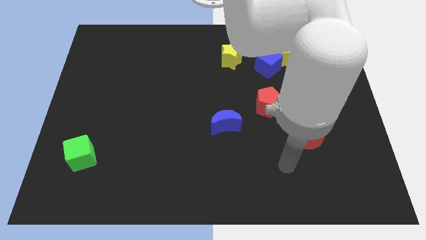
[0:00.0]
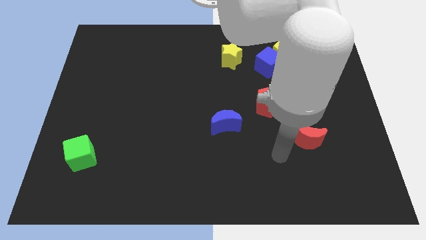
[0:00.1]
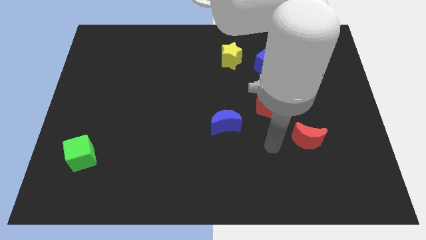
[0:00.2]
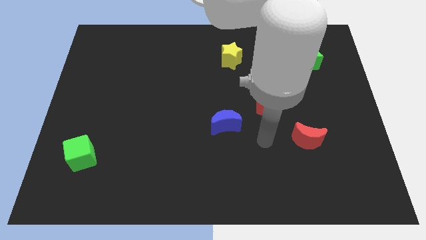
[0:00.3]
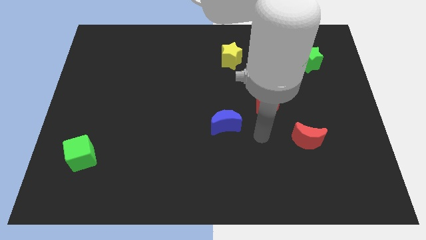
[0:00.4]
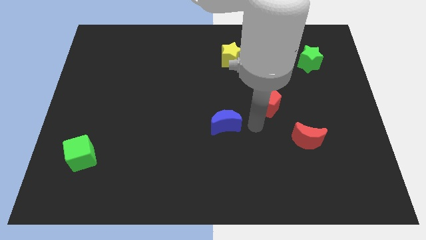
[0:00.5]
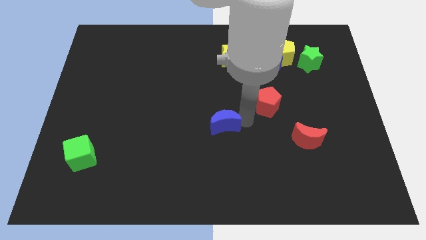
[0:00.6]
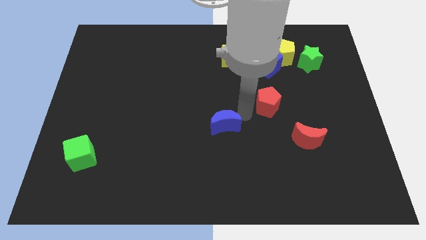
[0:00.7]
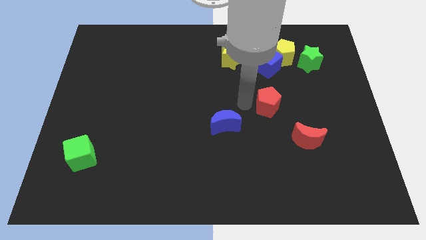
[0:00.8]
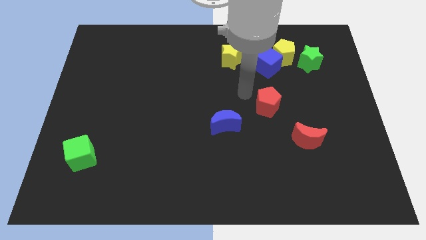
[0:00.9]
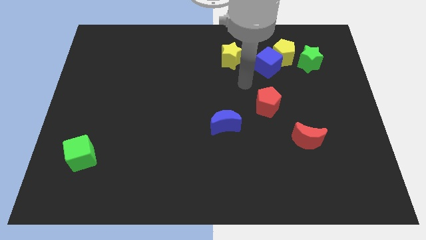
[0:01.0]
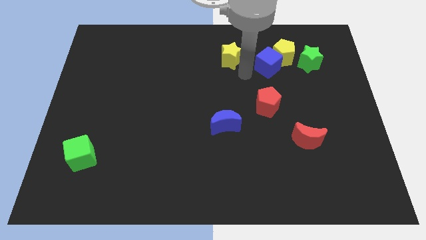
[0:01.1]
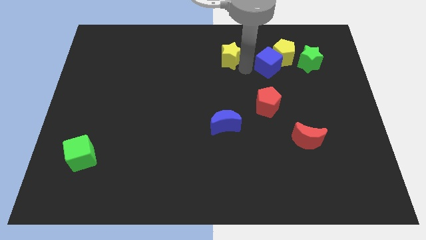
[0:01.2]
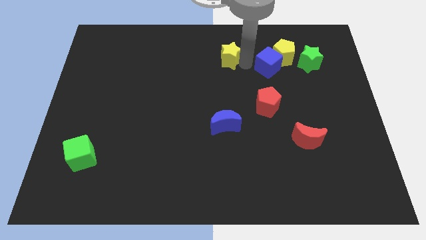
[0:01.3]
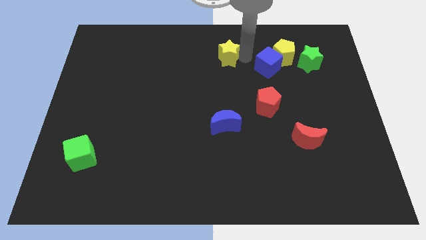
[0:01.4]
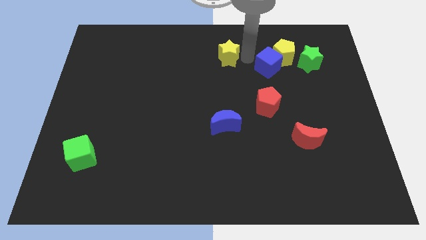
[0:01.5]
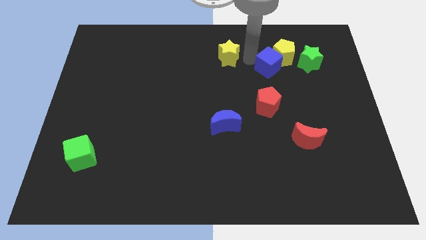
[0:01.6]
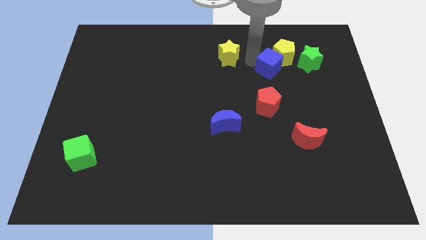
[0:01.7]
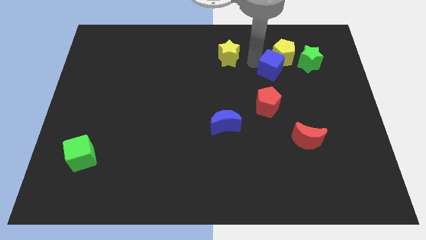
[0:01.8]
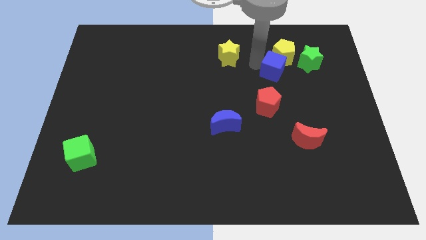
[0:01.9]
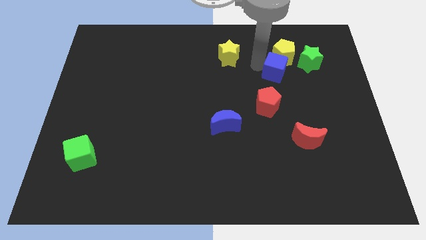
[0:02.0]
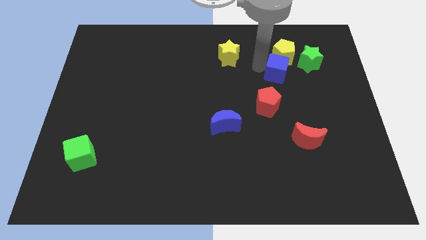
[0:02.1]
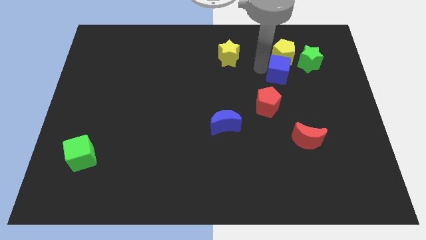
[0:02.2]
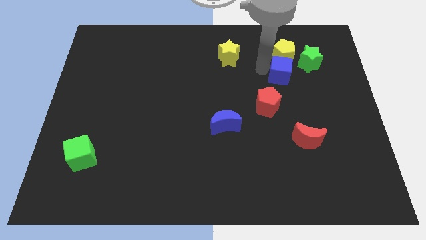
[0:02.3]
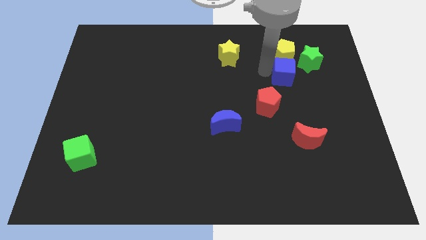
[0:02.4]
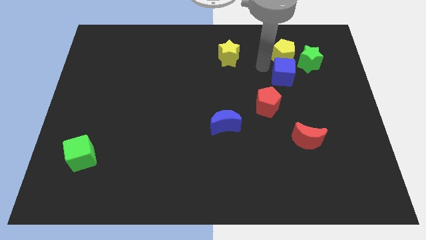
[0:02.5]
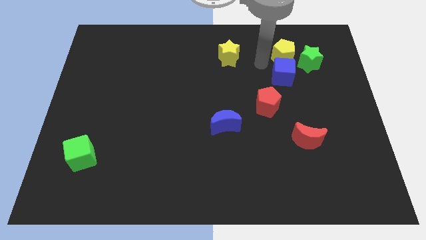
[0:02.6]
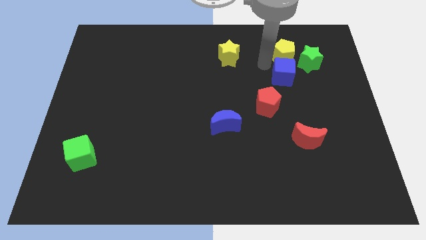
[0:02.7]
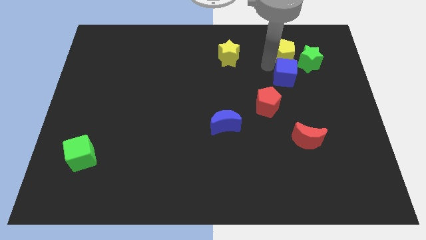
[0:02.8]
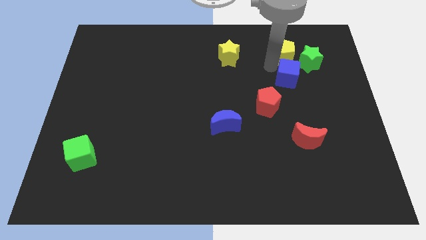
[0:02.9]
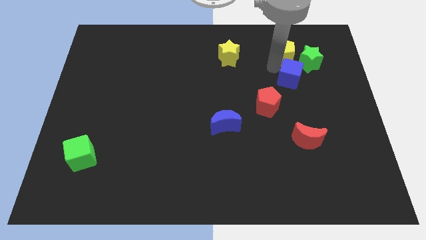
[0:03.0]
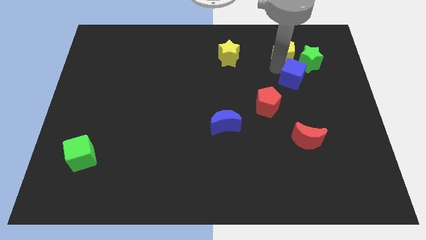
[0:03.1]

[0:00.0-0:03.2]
push the blue cube diagonally down and right a little bit

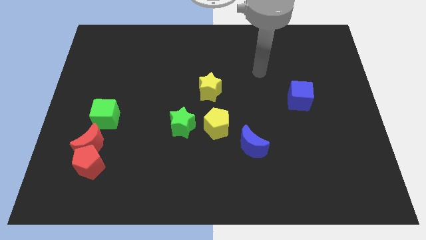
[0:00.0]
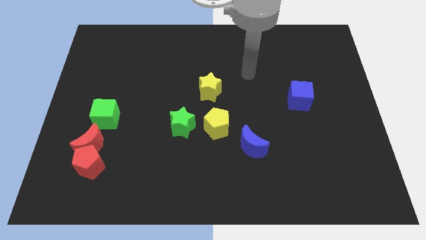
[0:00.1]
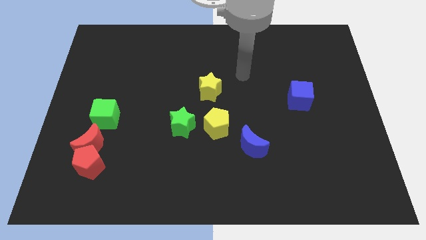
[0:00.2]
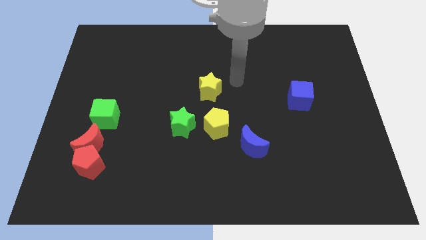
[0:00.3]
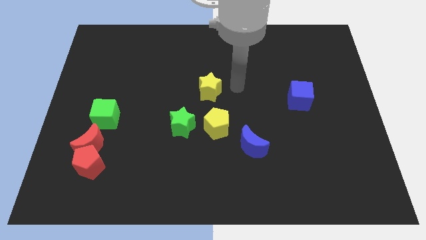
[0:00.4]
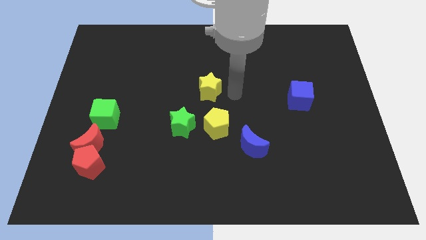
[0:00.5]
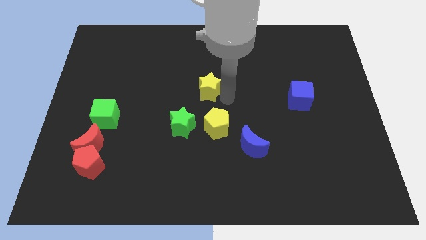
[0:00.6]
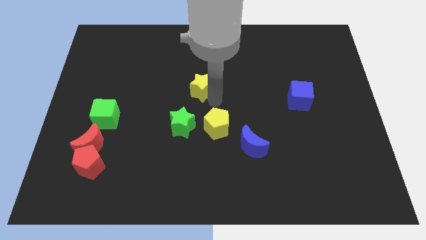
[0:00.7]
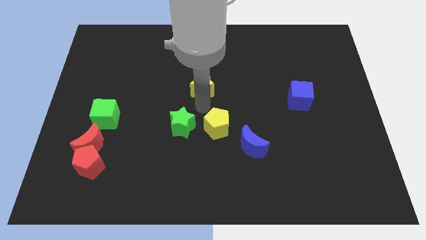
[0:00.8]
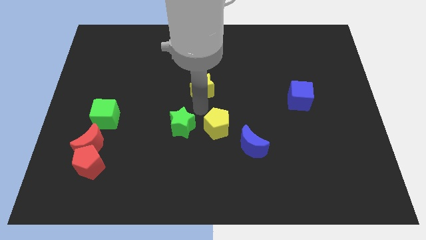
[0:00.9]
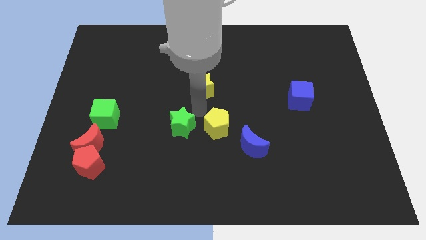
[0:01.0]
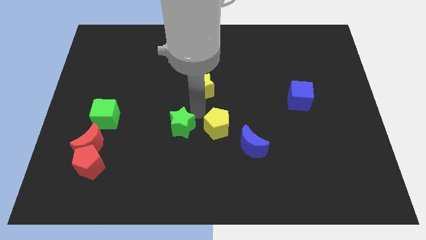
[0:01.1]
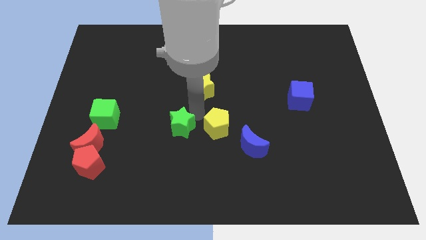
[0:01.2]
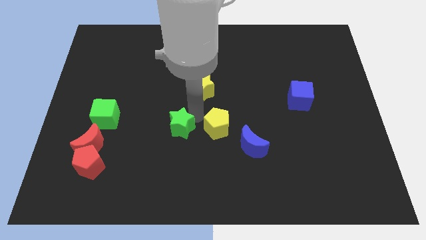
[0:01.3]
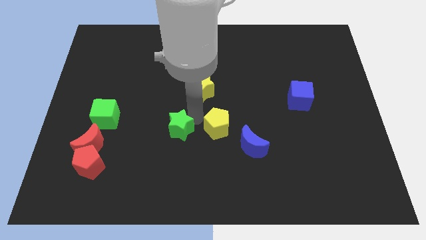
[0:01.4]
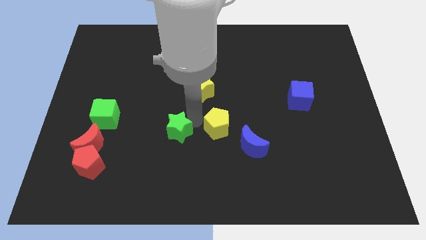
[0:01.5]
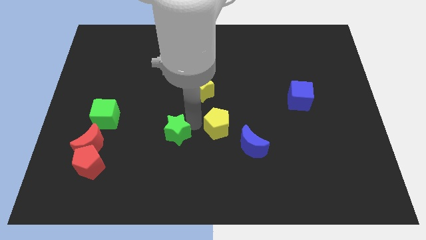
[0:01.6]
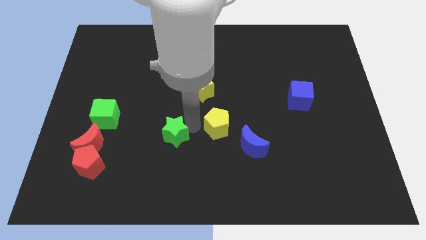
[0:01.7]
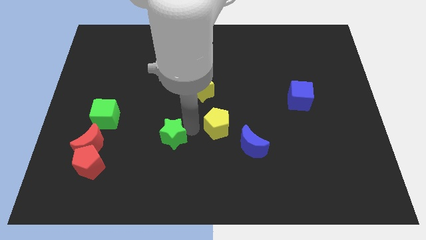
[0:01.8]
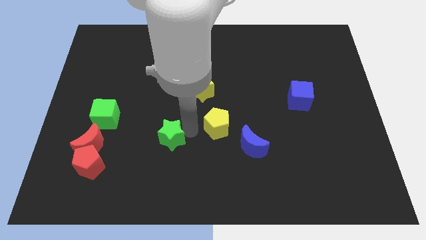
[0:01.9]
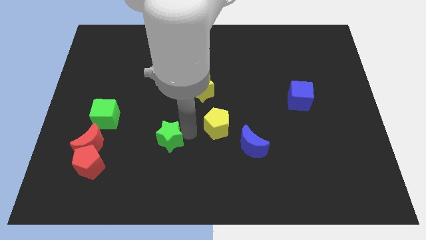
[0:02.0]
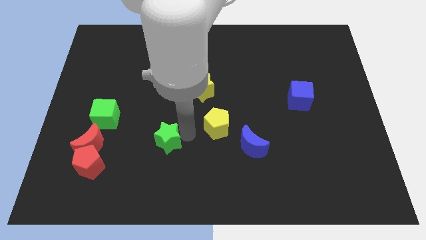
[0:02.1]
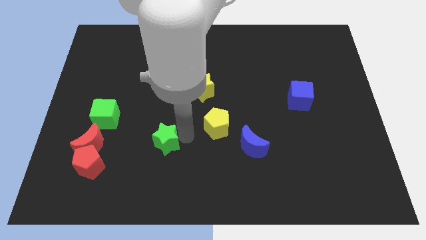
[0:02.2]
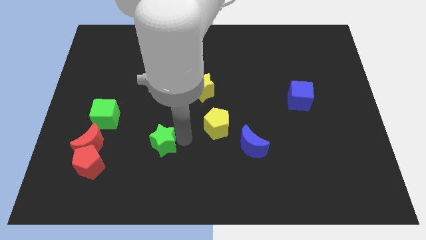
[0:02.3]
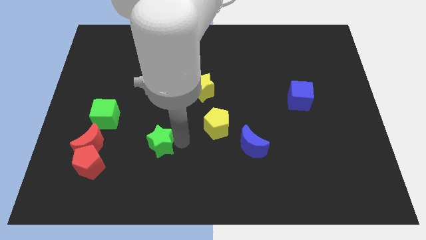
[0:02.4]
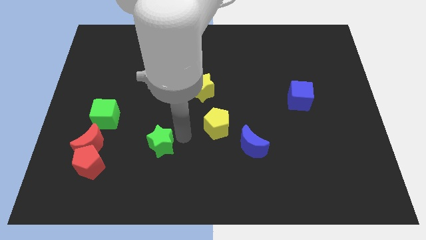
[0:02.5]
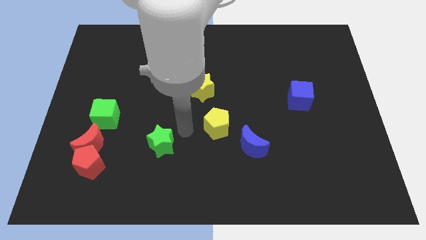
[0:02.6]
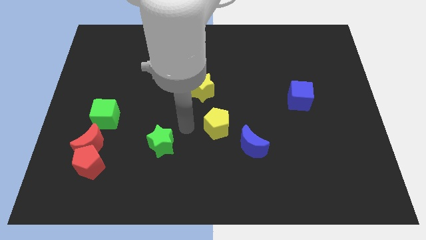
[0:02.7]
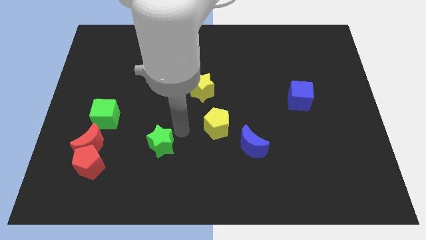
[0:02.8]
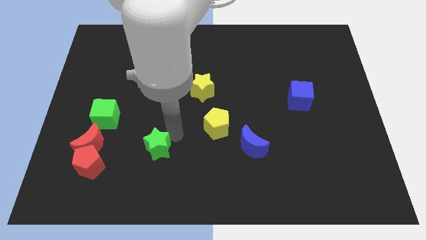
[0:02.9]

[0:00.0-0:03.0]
slightly move the green star down and left

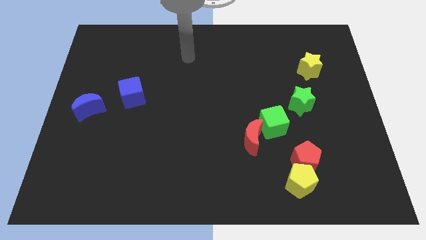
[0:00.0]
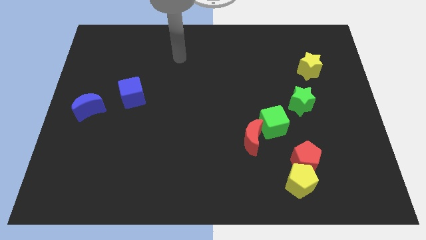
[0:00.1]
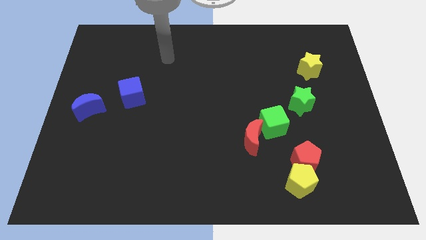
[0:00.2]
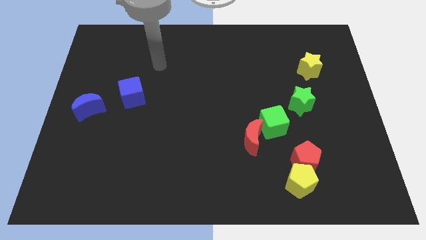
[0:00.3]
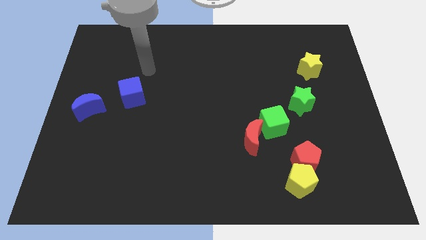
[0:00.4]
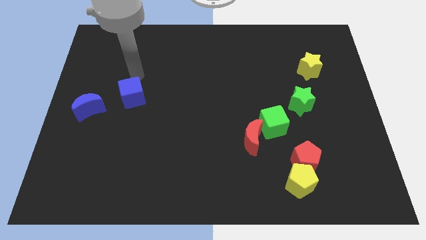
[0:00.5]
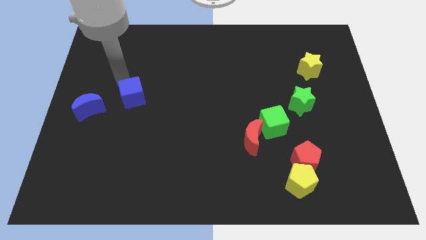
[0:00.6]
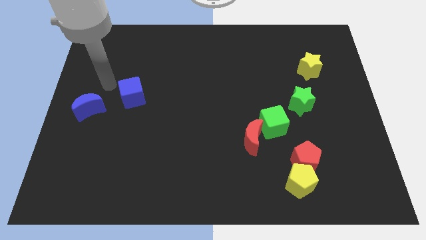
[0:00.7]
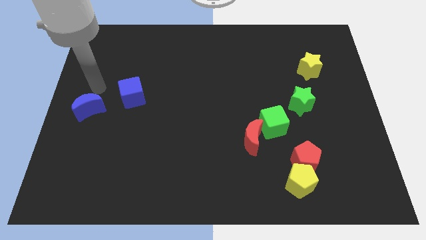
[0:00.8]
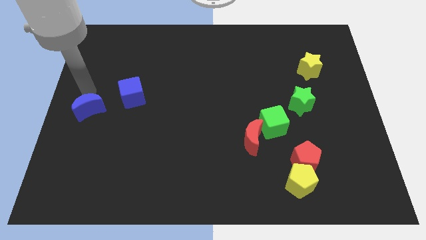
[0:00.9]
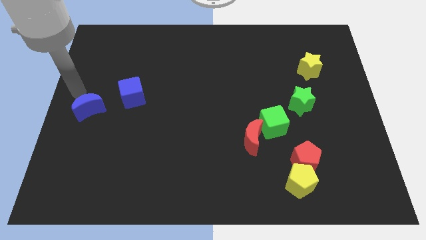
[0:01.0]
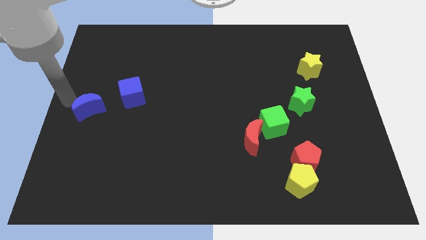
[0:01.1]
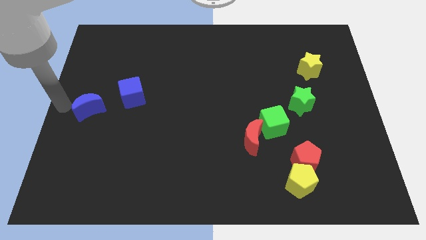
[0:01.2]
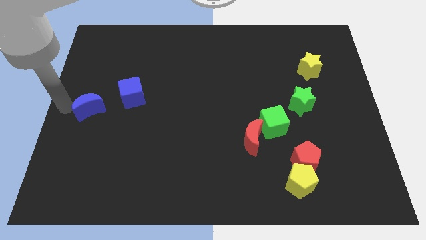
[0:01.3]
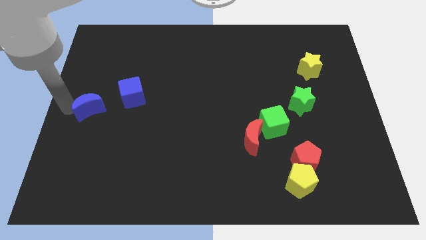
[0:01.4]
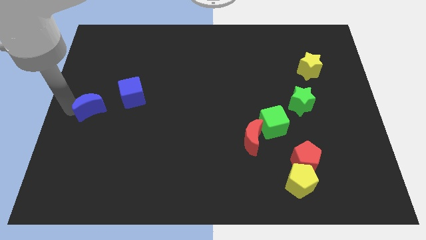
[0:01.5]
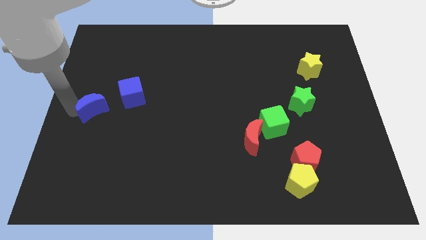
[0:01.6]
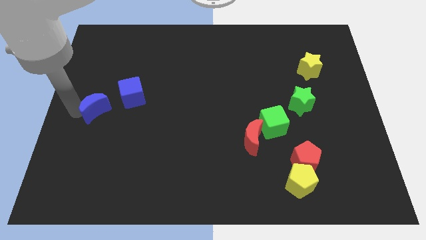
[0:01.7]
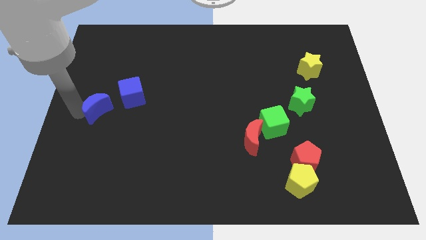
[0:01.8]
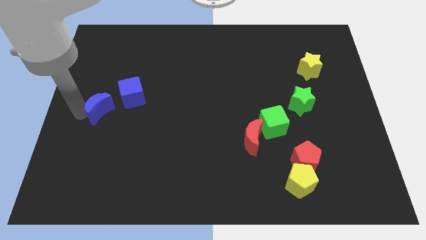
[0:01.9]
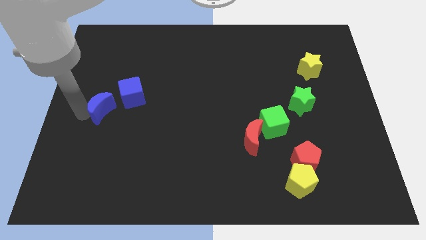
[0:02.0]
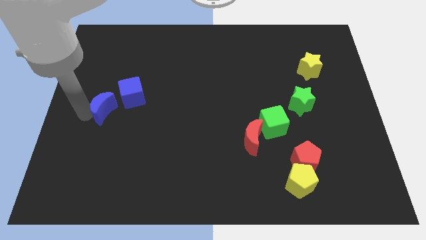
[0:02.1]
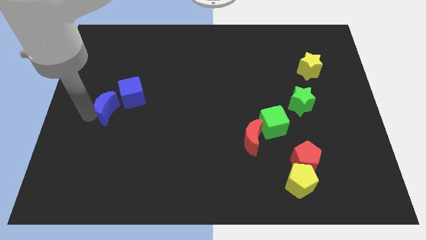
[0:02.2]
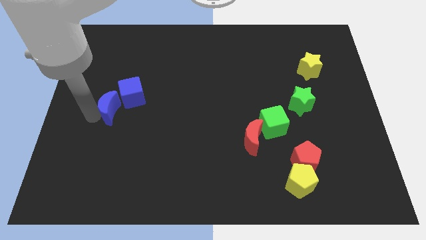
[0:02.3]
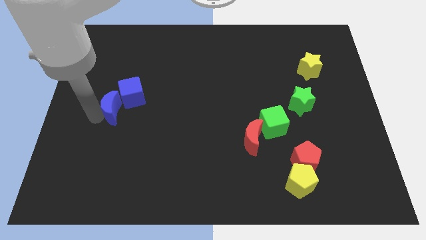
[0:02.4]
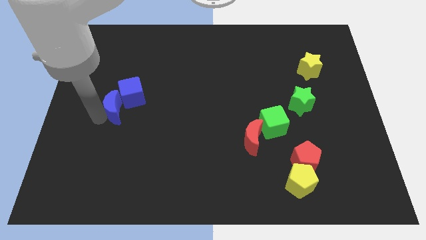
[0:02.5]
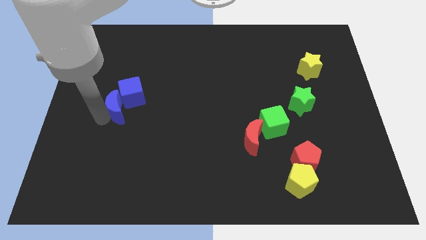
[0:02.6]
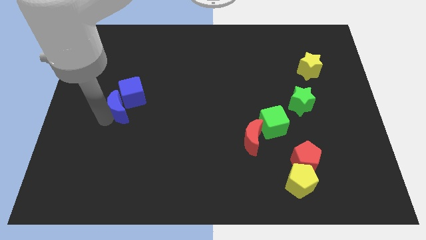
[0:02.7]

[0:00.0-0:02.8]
slightly push the blue moon right
